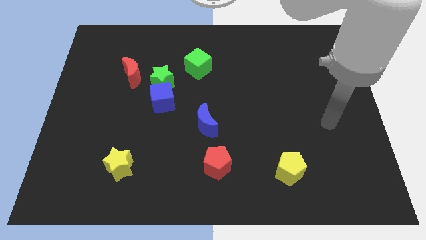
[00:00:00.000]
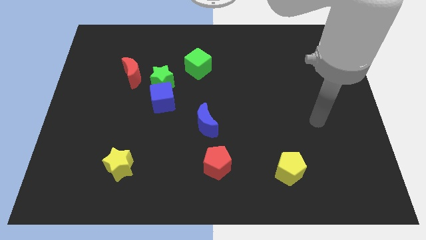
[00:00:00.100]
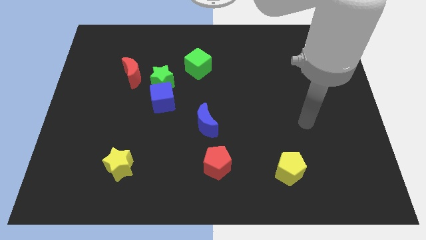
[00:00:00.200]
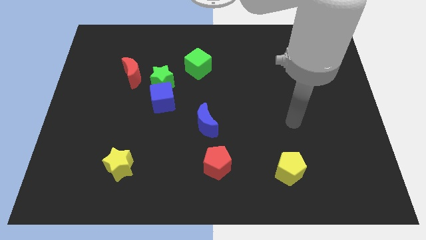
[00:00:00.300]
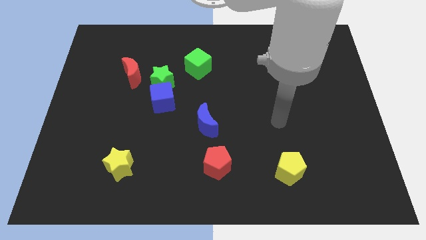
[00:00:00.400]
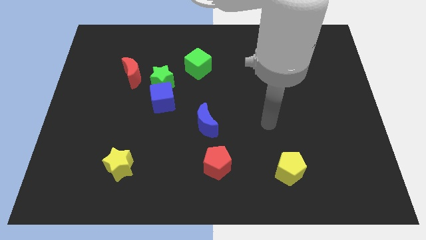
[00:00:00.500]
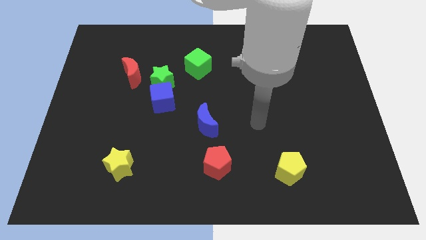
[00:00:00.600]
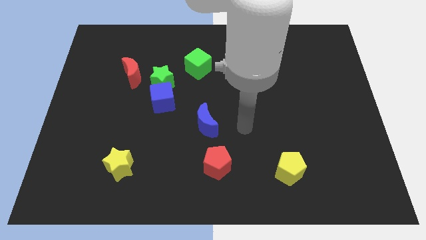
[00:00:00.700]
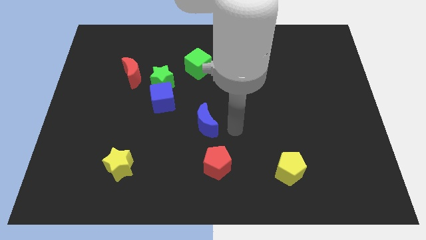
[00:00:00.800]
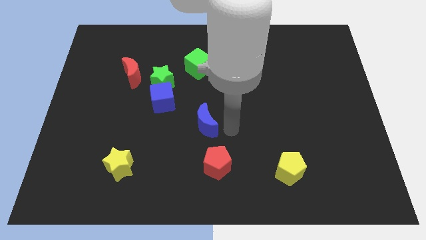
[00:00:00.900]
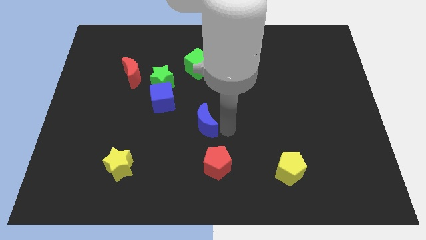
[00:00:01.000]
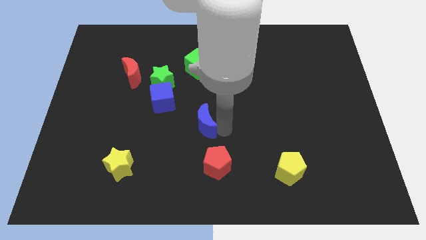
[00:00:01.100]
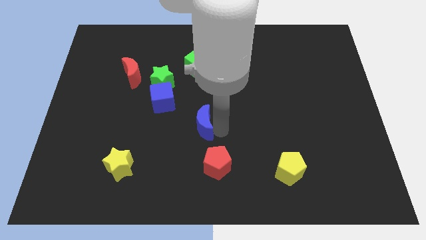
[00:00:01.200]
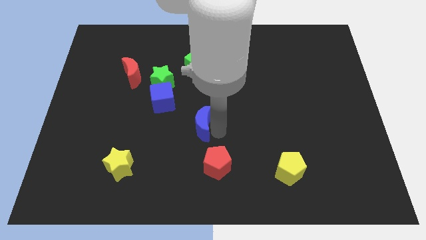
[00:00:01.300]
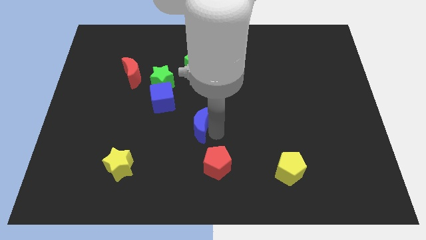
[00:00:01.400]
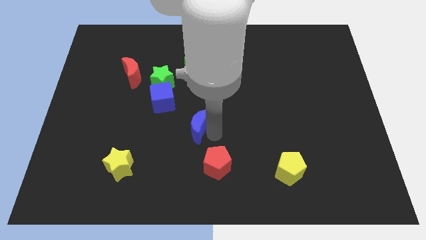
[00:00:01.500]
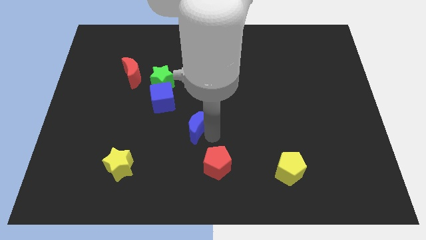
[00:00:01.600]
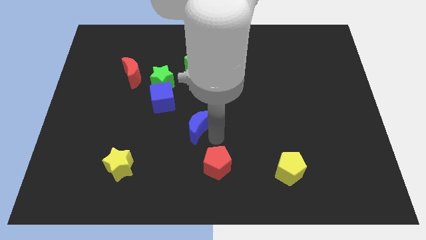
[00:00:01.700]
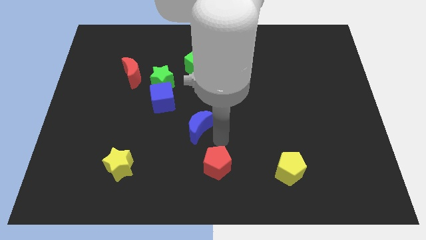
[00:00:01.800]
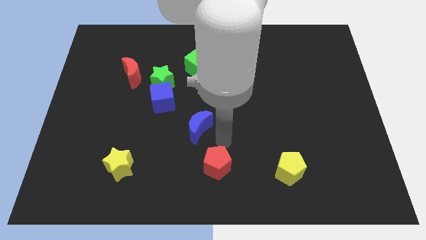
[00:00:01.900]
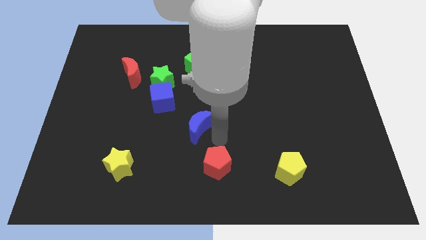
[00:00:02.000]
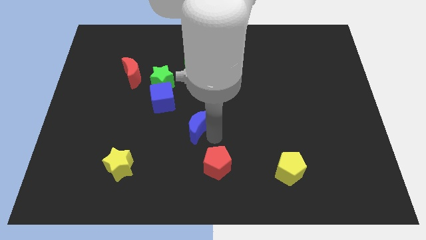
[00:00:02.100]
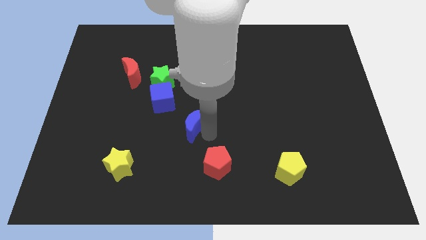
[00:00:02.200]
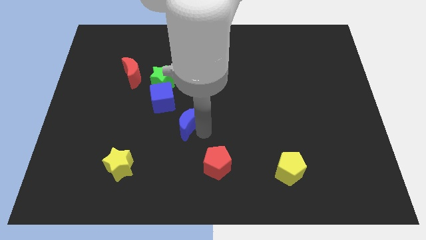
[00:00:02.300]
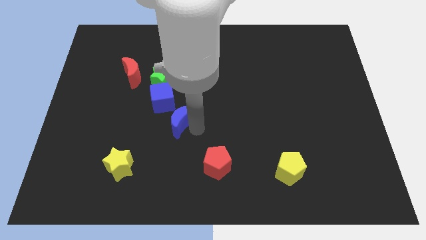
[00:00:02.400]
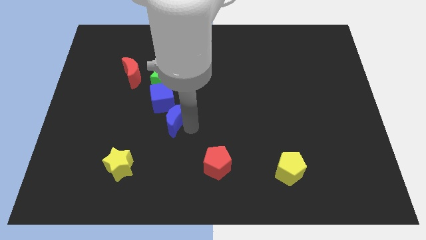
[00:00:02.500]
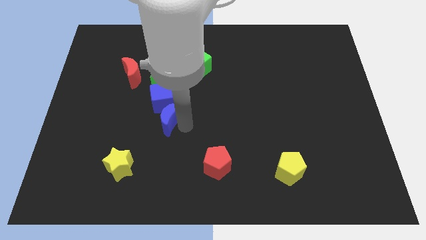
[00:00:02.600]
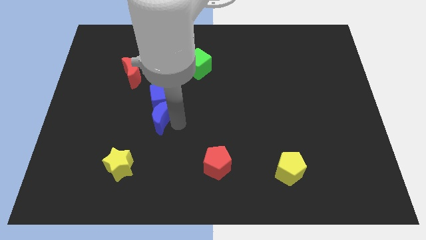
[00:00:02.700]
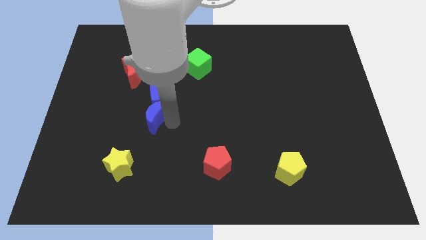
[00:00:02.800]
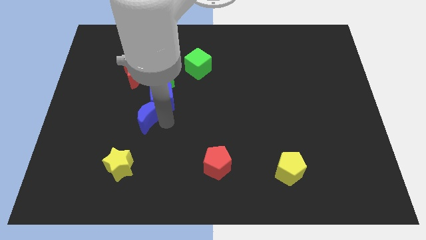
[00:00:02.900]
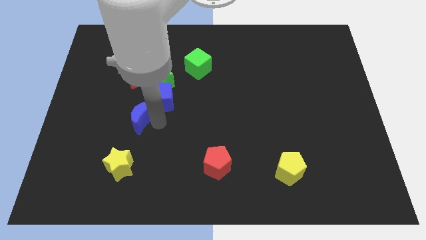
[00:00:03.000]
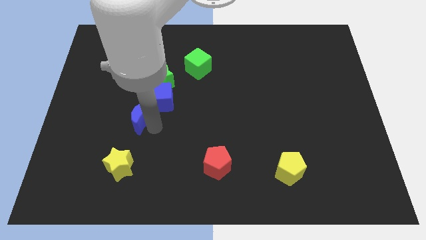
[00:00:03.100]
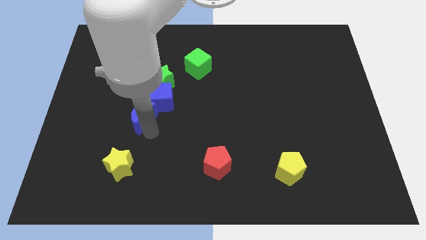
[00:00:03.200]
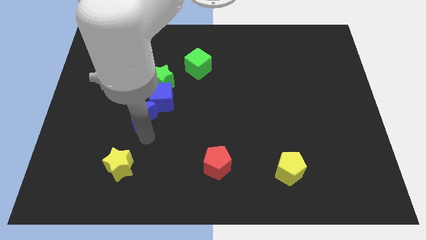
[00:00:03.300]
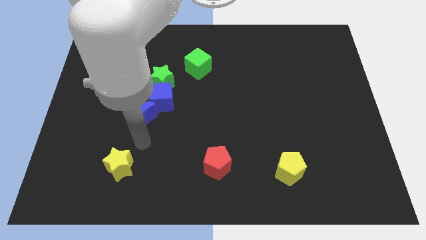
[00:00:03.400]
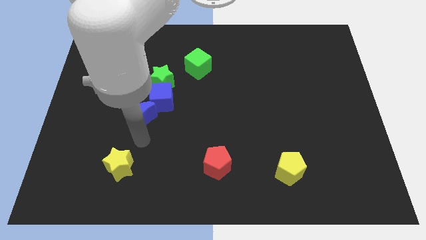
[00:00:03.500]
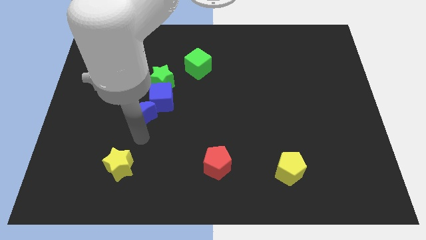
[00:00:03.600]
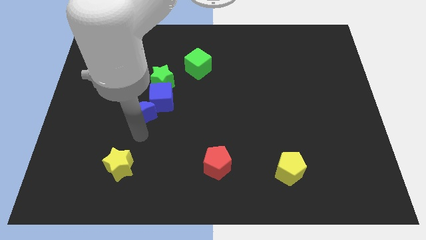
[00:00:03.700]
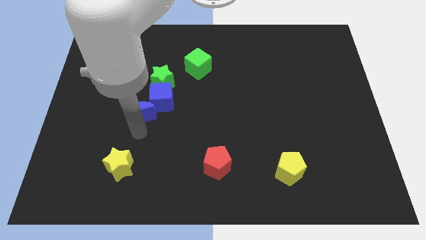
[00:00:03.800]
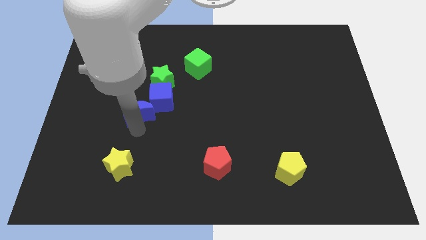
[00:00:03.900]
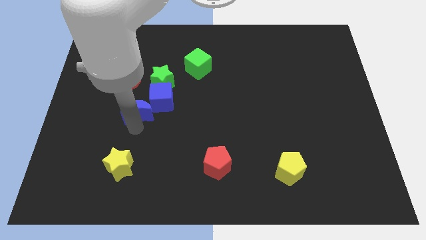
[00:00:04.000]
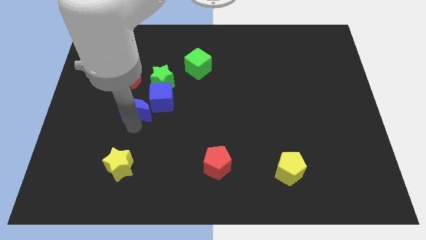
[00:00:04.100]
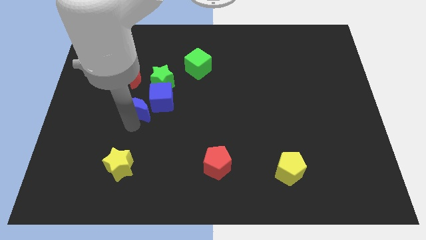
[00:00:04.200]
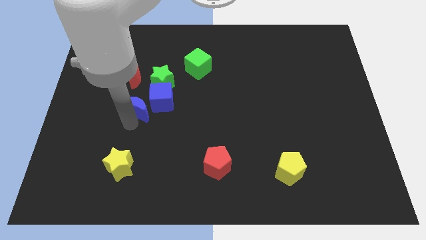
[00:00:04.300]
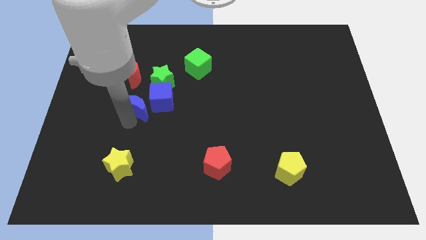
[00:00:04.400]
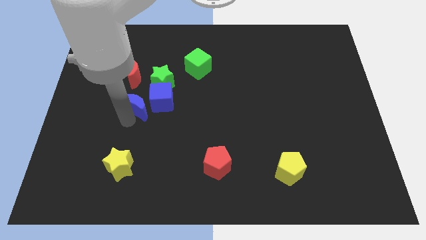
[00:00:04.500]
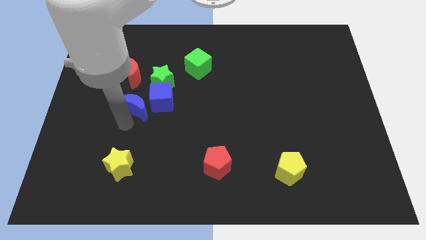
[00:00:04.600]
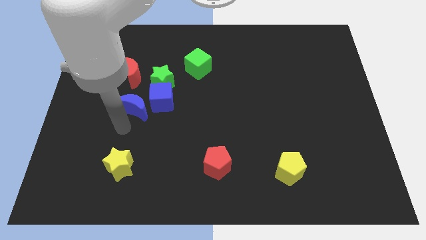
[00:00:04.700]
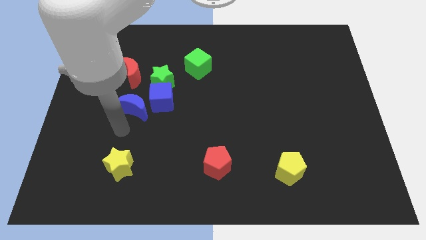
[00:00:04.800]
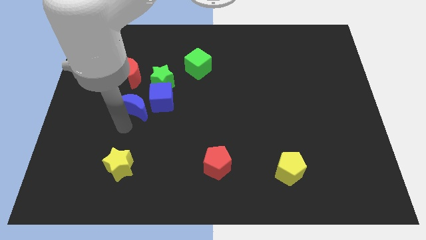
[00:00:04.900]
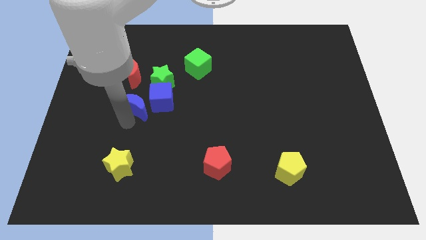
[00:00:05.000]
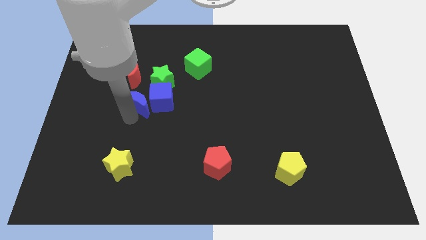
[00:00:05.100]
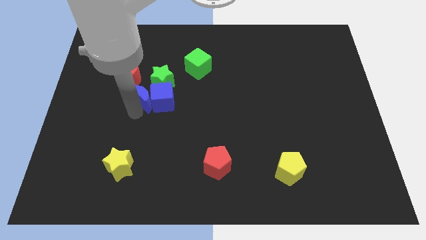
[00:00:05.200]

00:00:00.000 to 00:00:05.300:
move the blue moon to the top left side of the blue cube
